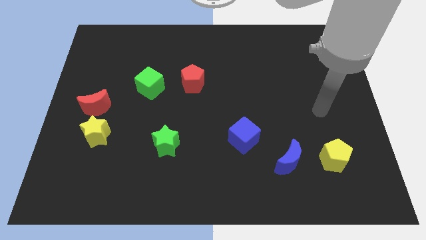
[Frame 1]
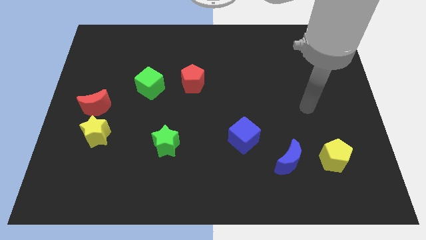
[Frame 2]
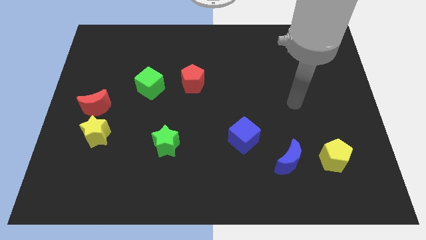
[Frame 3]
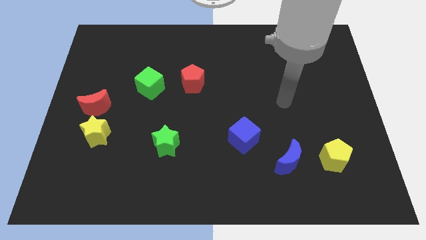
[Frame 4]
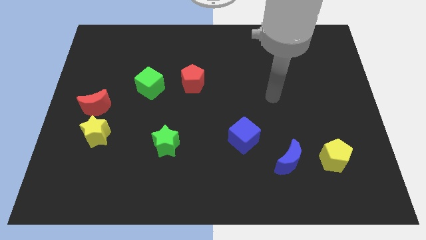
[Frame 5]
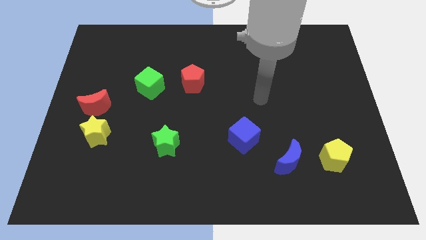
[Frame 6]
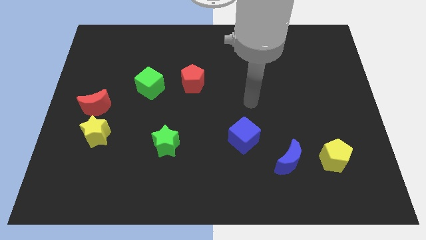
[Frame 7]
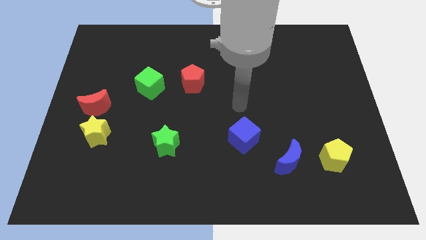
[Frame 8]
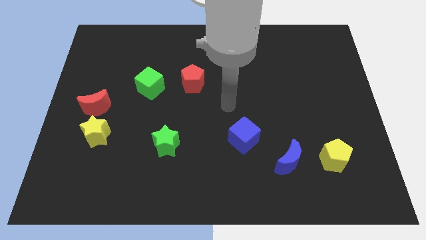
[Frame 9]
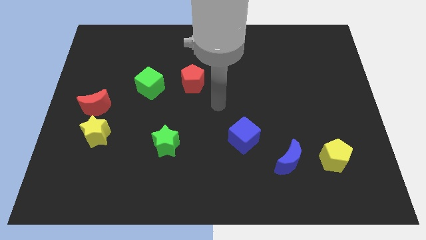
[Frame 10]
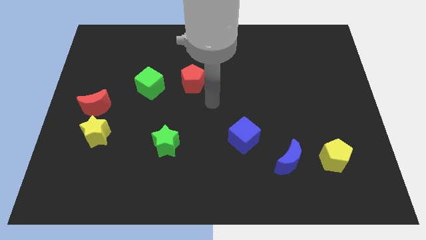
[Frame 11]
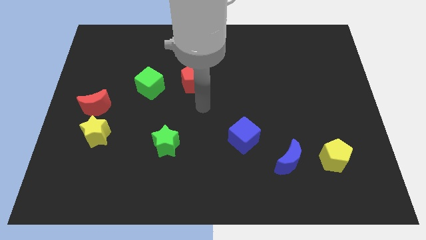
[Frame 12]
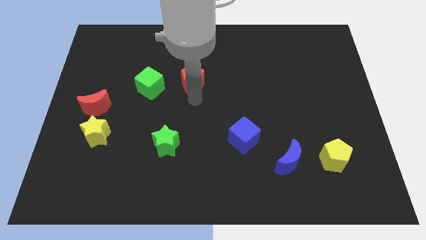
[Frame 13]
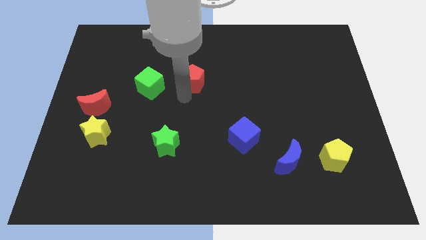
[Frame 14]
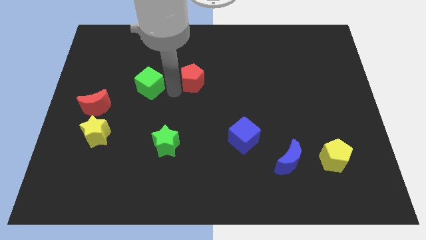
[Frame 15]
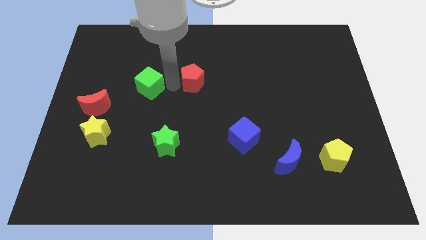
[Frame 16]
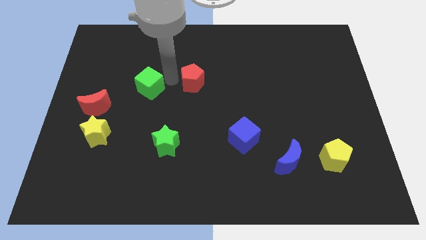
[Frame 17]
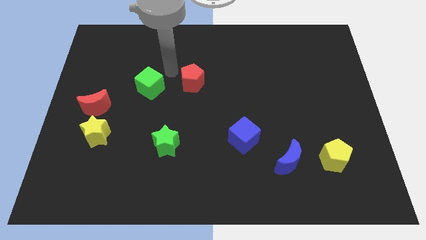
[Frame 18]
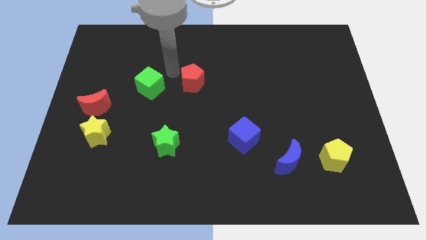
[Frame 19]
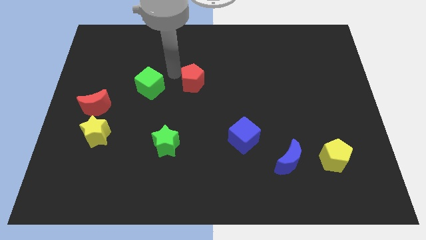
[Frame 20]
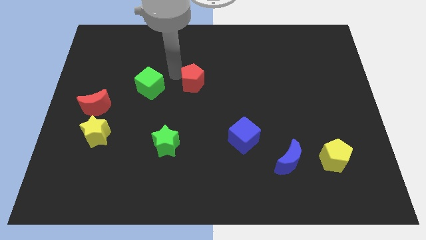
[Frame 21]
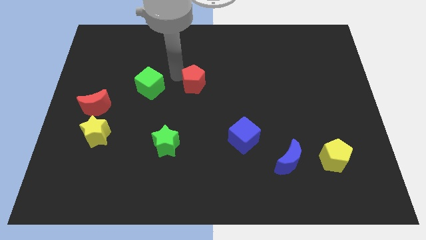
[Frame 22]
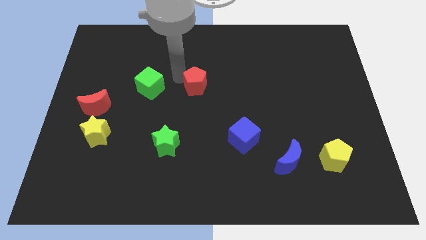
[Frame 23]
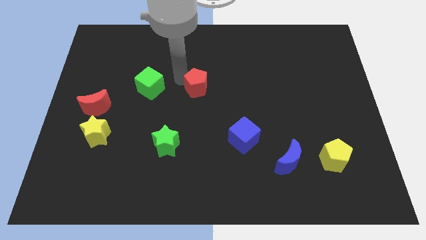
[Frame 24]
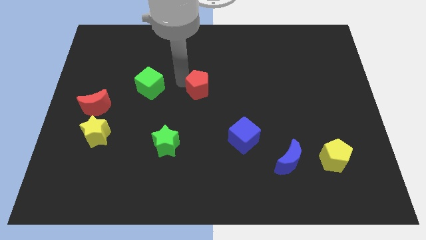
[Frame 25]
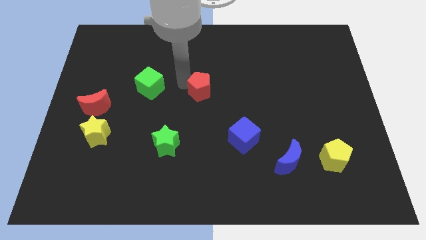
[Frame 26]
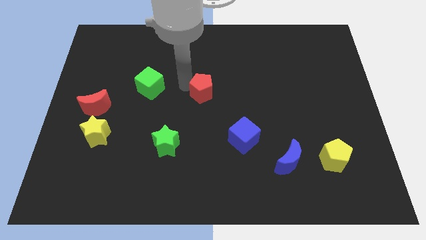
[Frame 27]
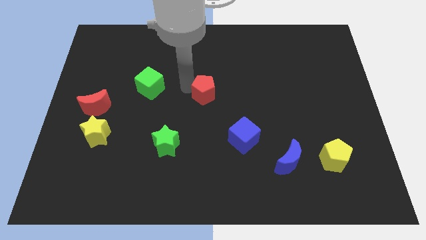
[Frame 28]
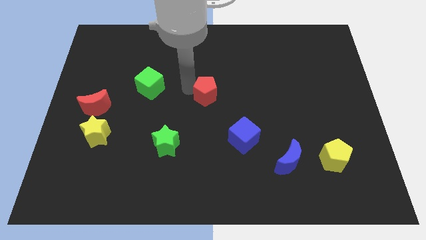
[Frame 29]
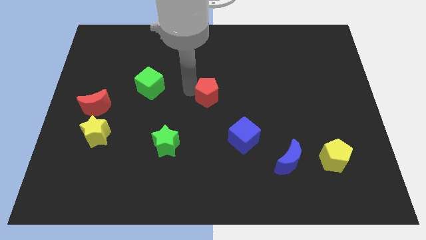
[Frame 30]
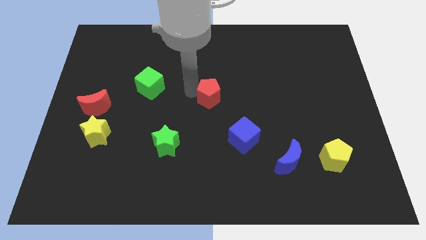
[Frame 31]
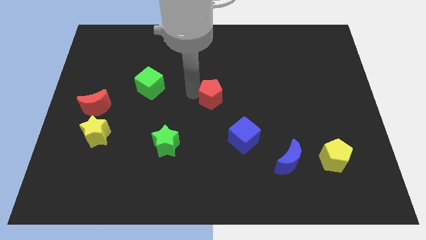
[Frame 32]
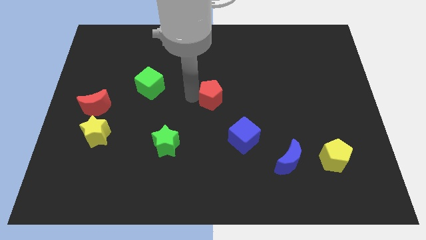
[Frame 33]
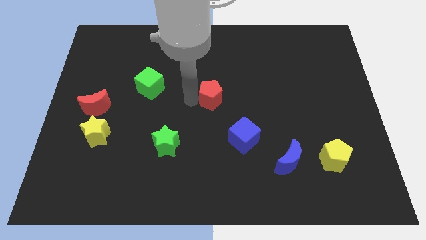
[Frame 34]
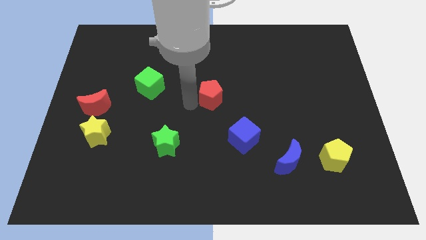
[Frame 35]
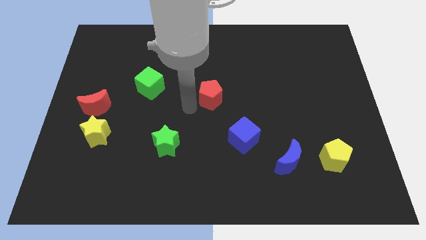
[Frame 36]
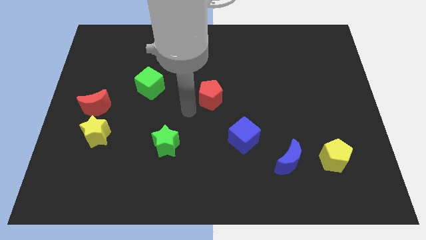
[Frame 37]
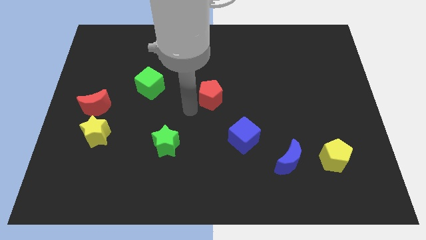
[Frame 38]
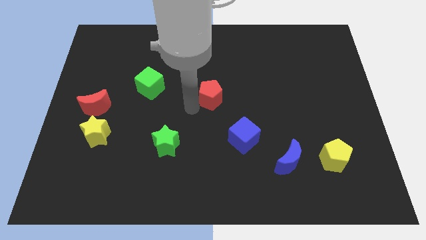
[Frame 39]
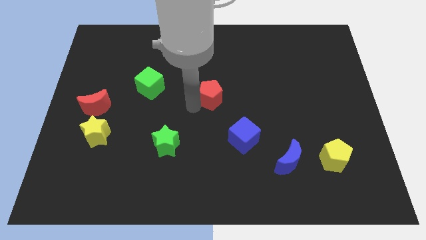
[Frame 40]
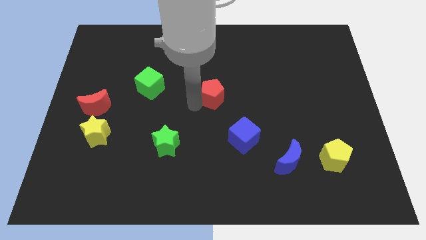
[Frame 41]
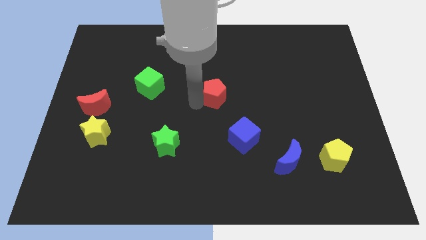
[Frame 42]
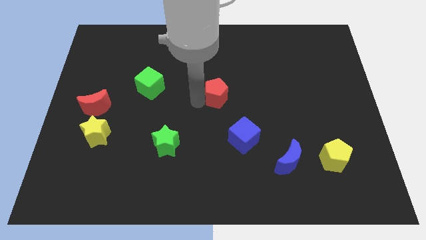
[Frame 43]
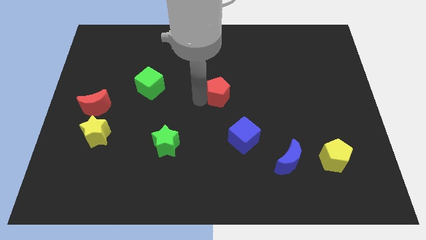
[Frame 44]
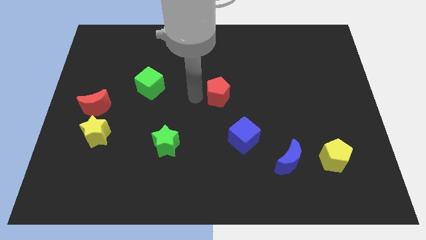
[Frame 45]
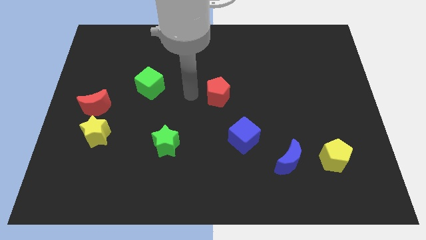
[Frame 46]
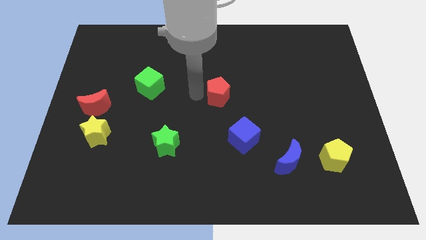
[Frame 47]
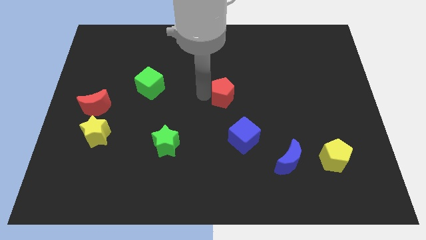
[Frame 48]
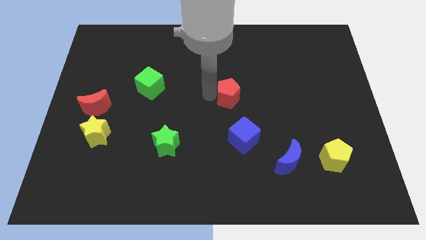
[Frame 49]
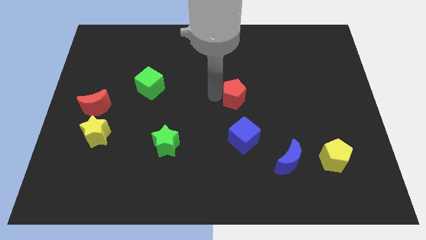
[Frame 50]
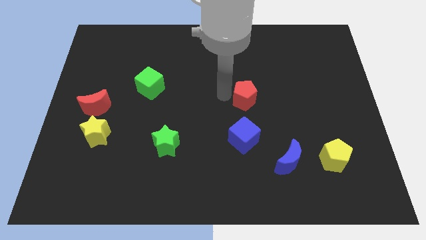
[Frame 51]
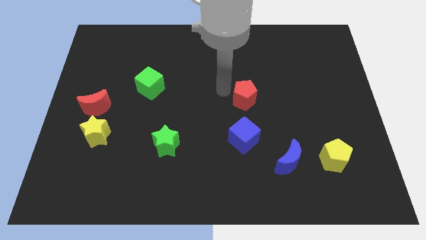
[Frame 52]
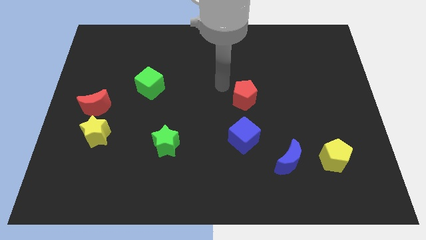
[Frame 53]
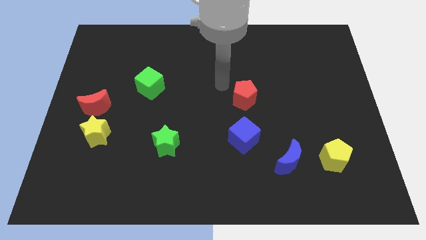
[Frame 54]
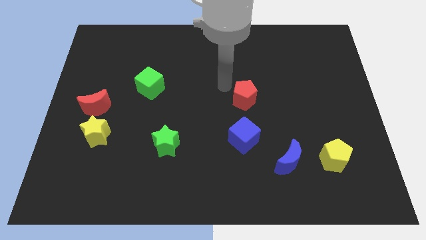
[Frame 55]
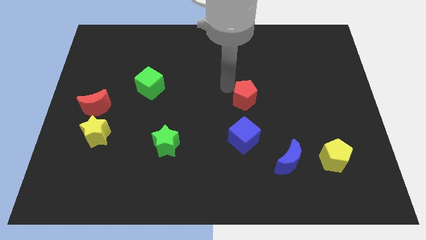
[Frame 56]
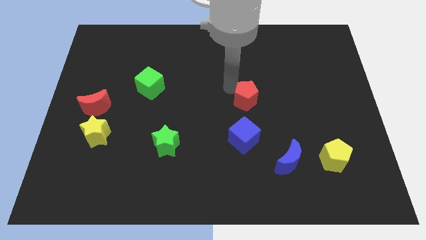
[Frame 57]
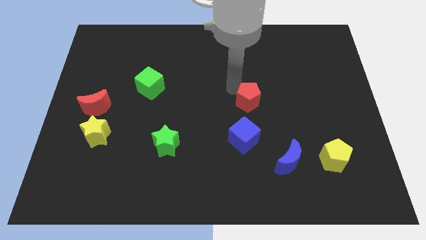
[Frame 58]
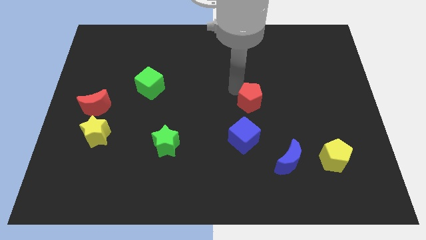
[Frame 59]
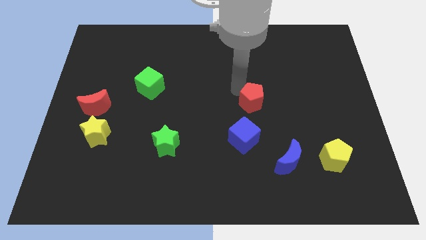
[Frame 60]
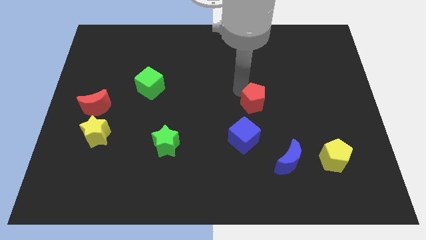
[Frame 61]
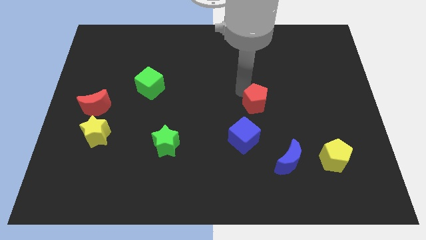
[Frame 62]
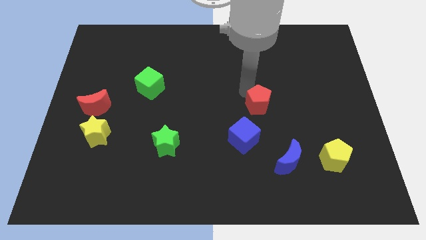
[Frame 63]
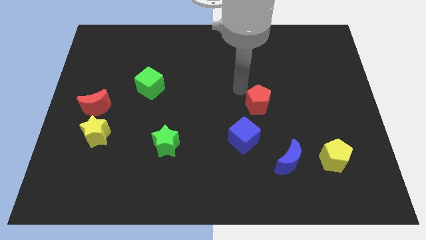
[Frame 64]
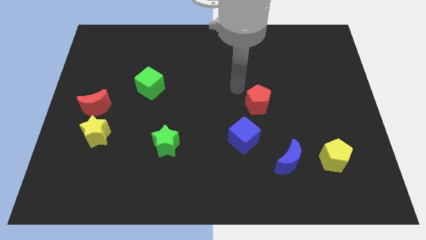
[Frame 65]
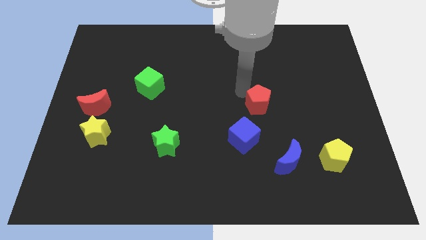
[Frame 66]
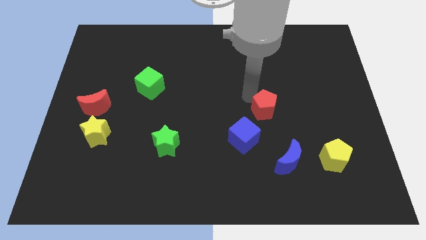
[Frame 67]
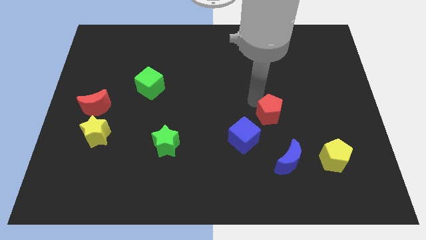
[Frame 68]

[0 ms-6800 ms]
move the red pentagon to the top of the blue moon
